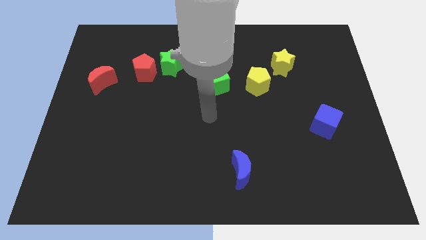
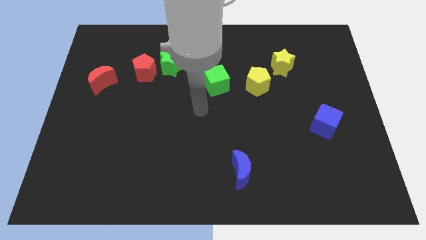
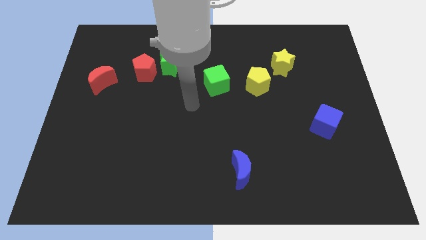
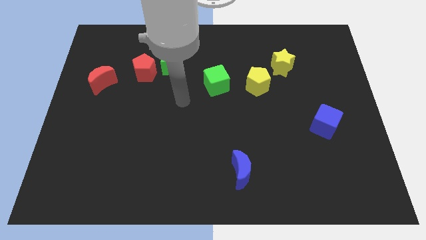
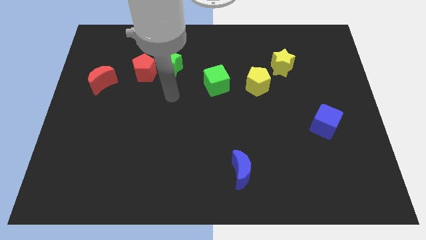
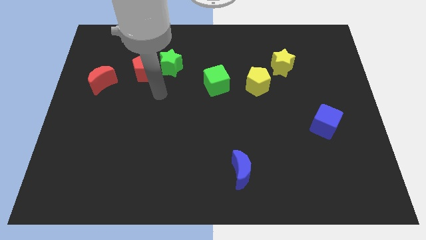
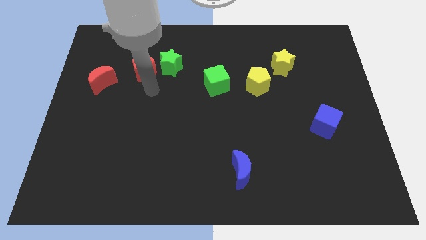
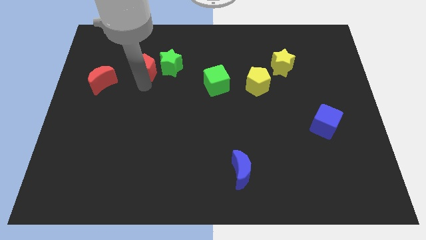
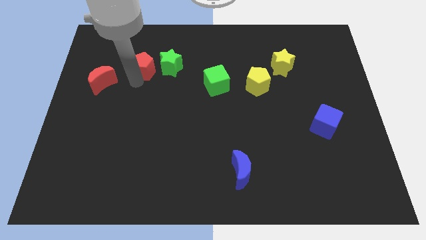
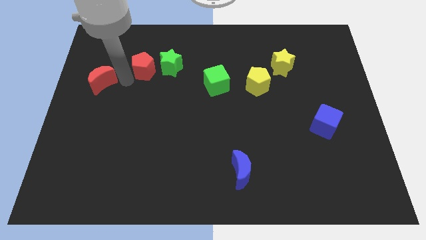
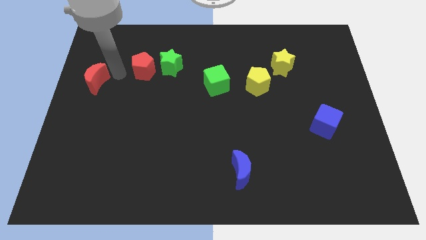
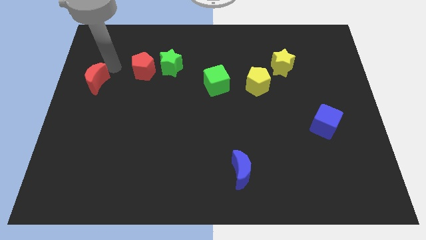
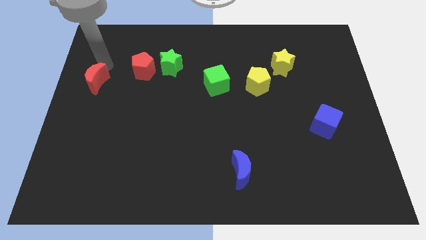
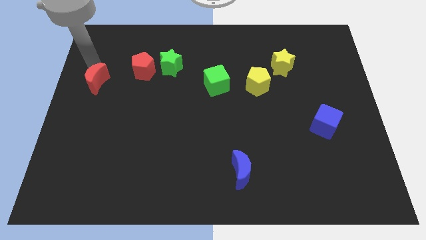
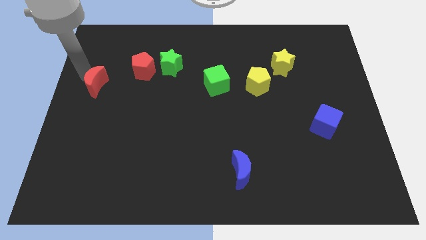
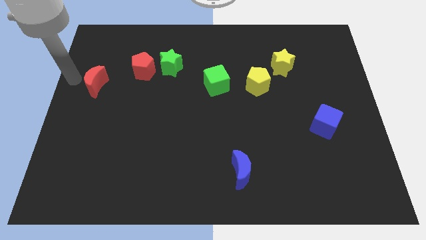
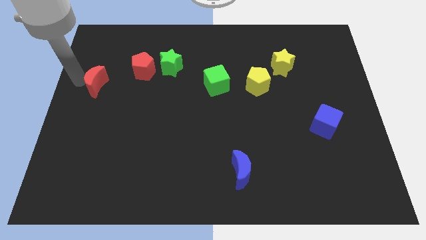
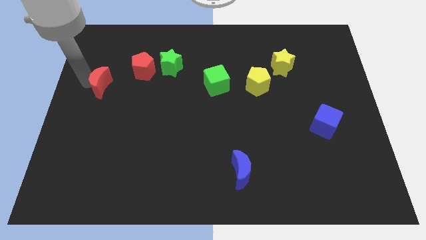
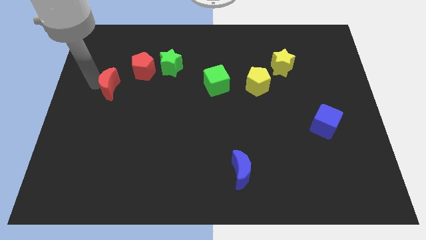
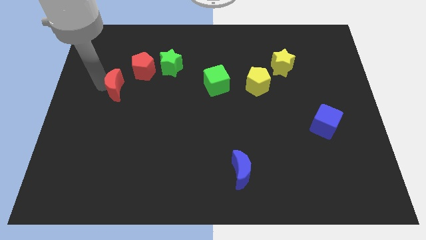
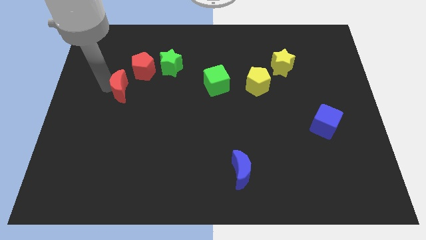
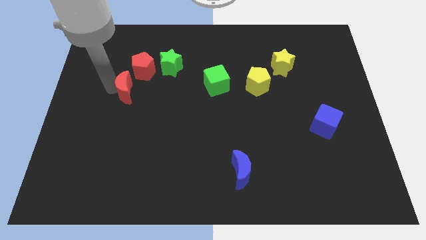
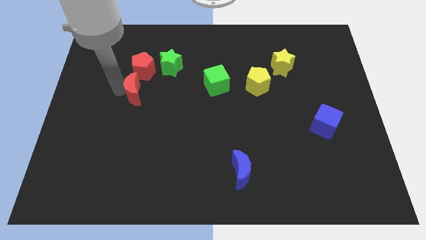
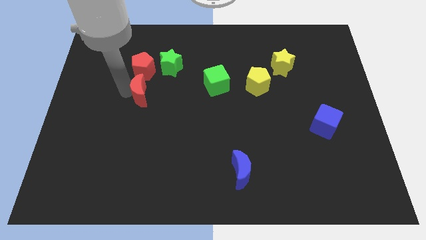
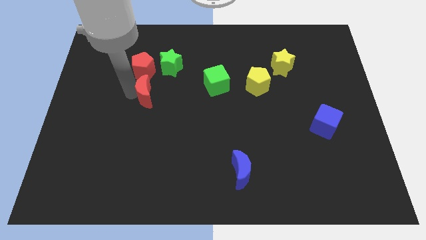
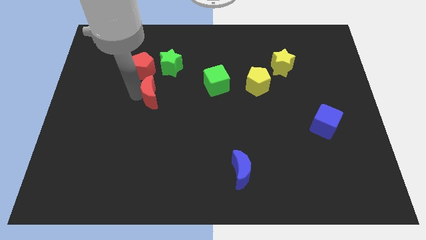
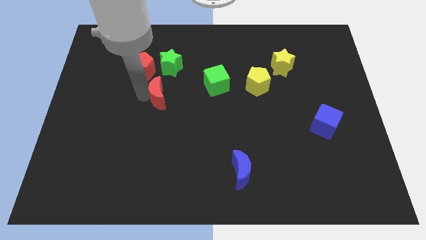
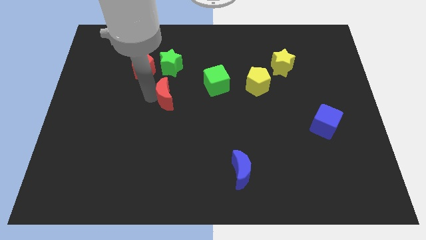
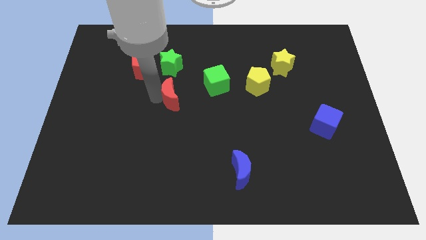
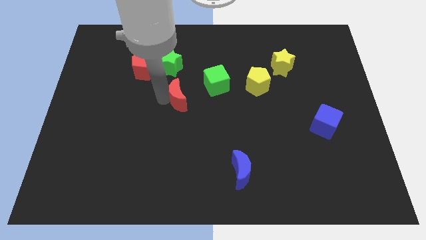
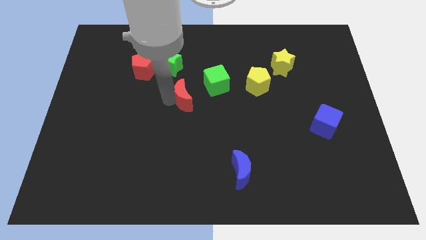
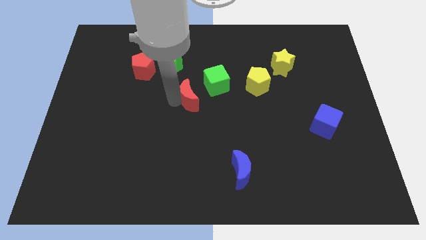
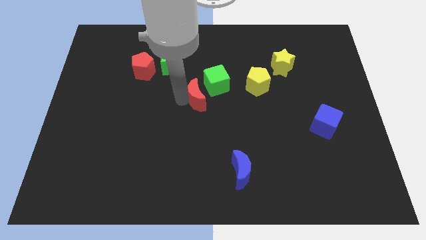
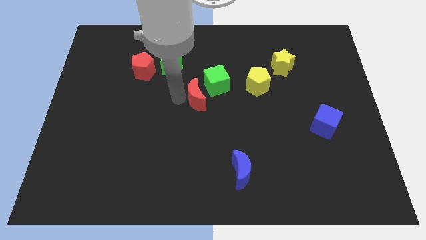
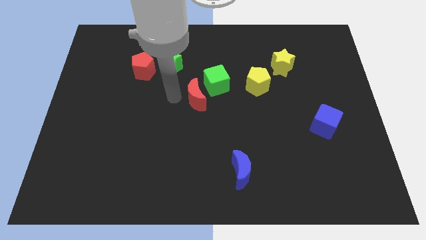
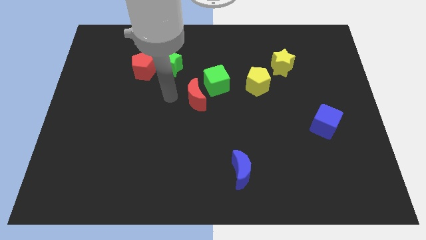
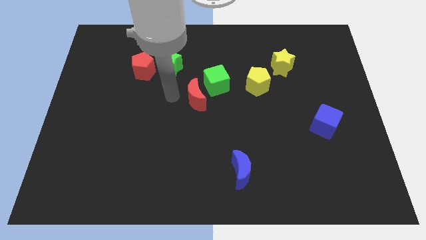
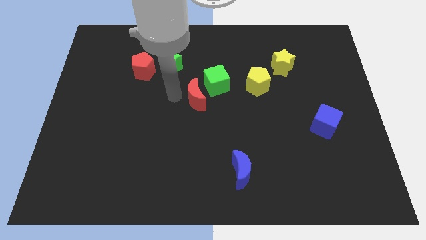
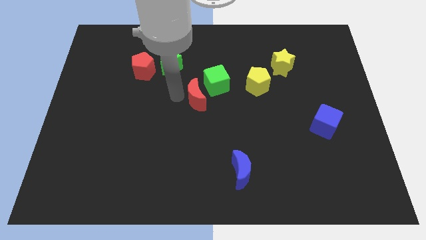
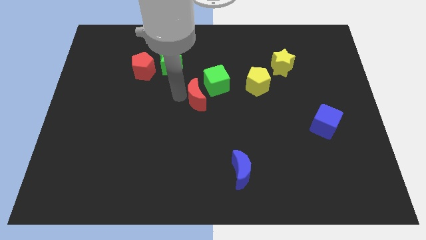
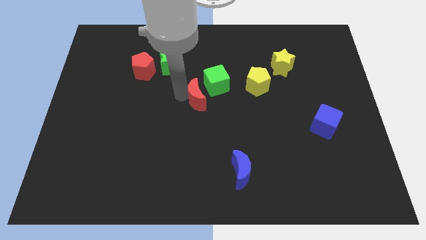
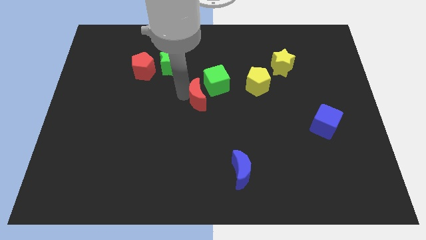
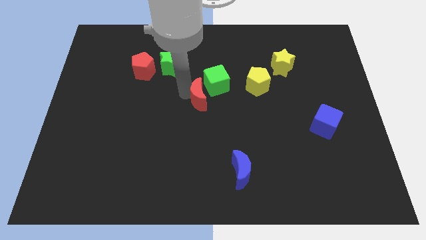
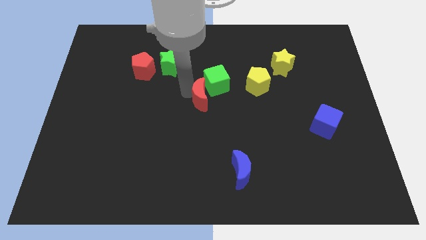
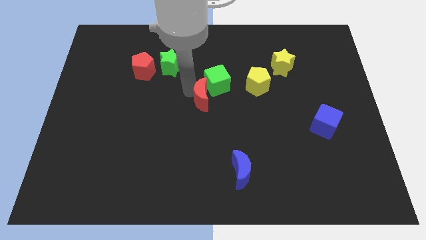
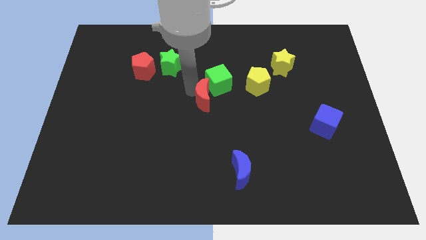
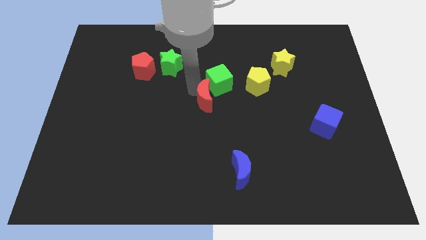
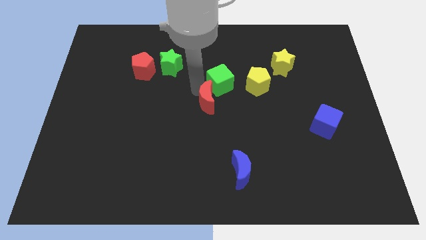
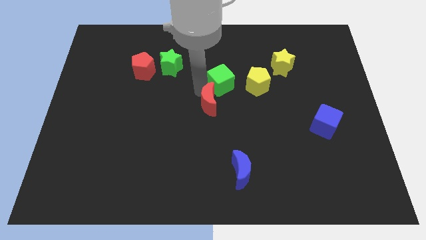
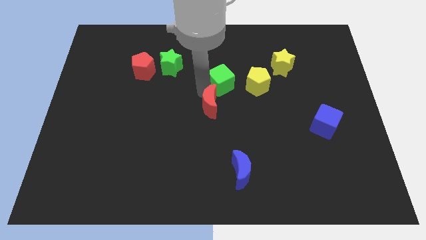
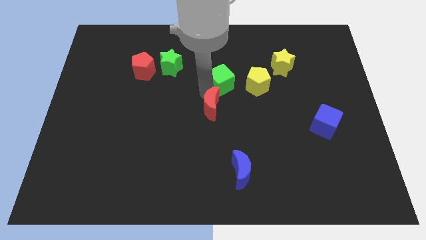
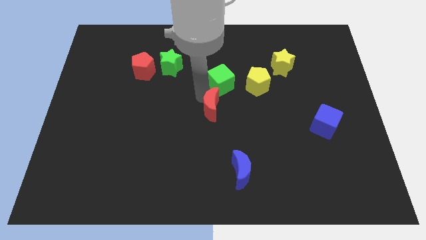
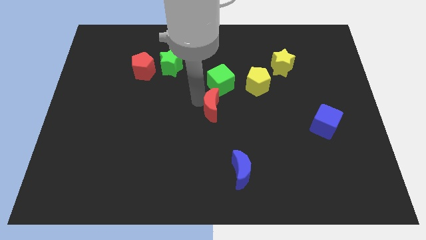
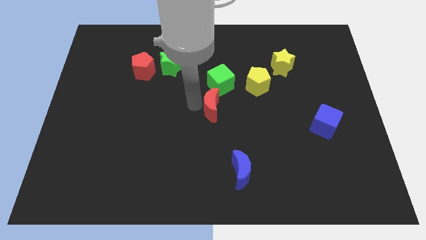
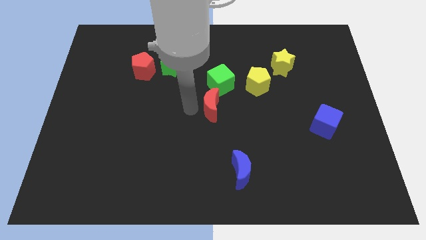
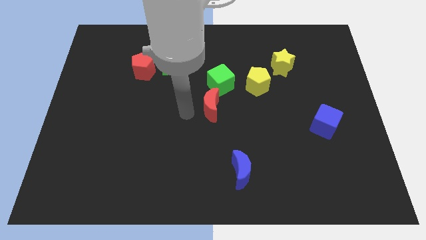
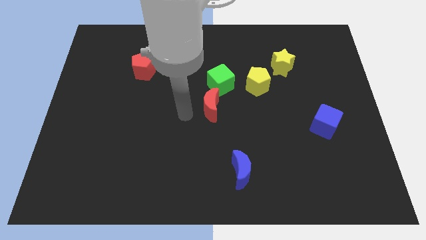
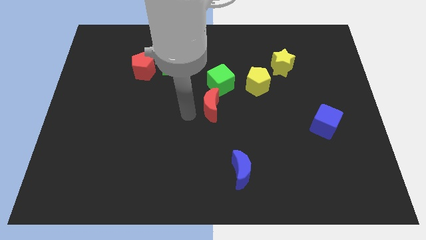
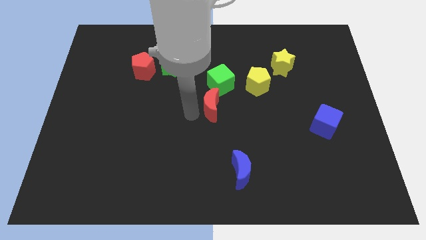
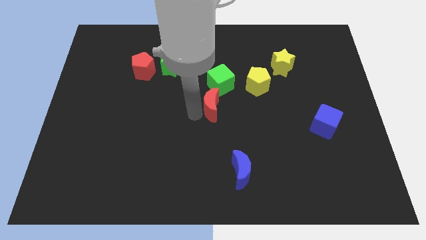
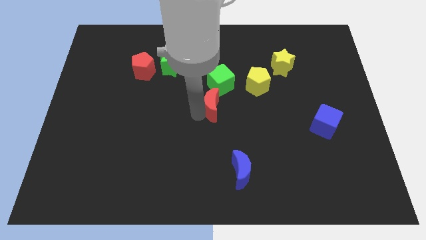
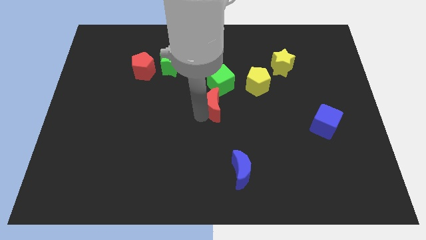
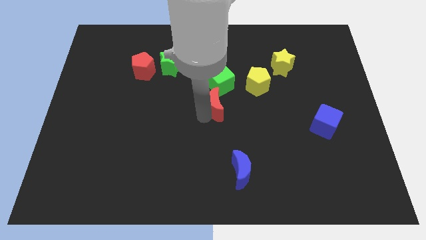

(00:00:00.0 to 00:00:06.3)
put the red moon to the bottom left side of the yellow pentagon
